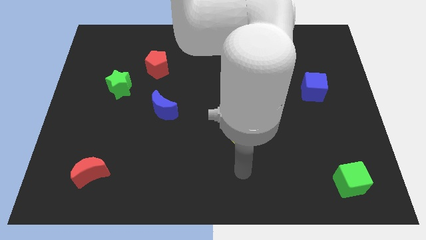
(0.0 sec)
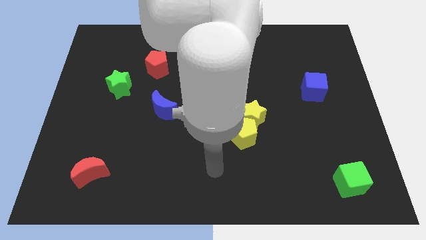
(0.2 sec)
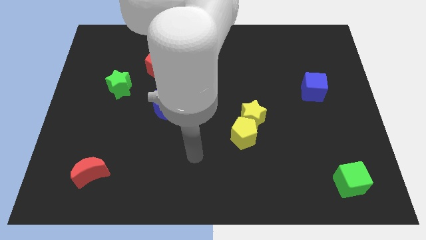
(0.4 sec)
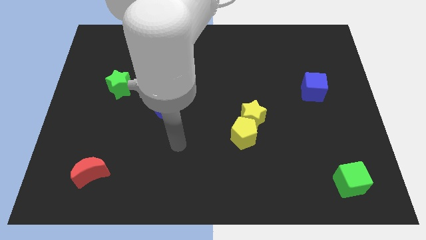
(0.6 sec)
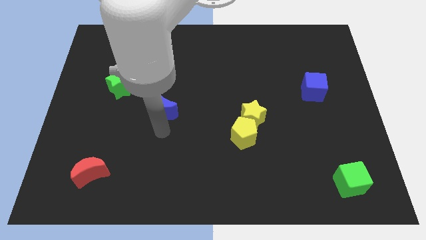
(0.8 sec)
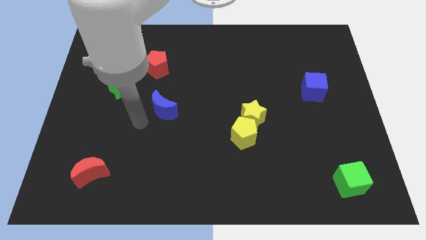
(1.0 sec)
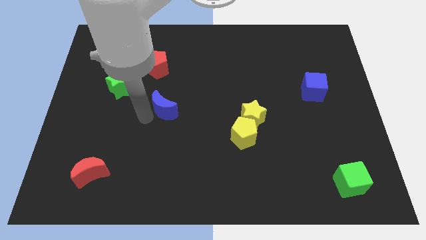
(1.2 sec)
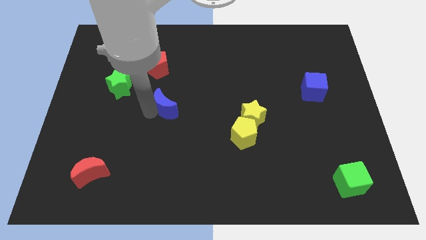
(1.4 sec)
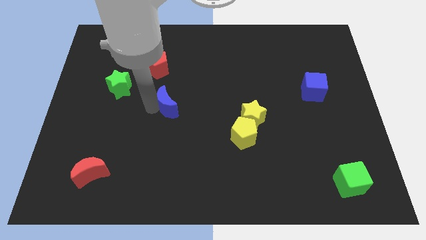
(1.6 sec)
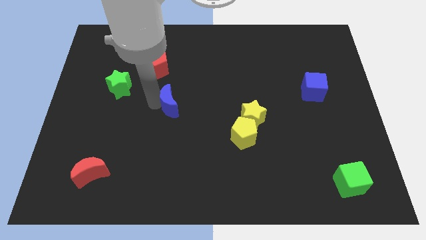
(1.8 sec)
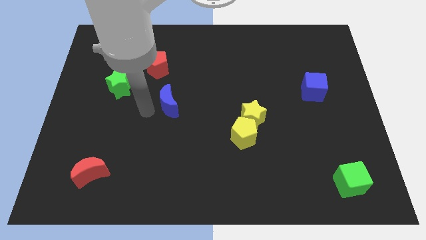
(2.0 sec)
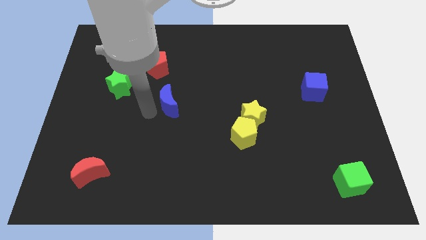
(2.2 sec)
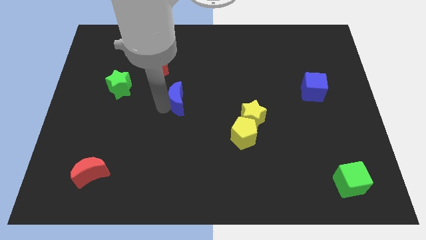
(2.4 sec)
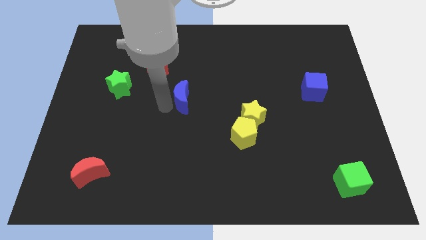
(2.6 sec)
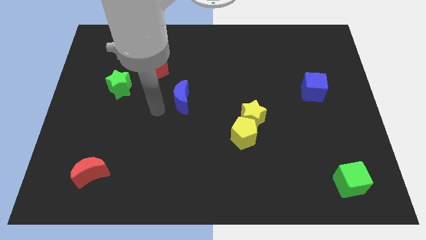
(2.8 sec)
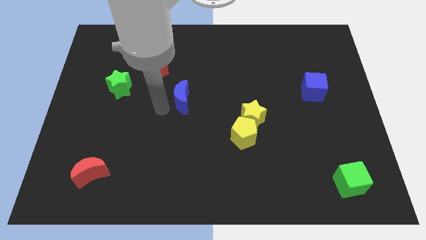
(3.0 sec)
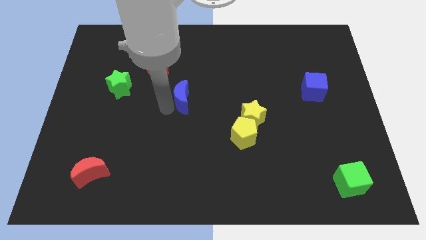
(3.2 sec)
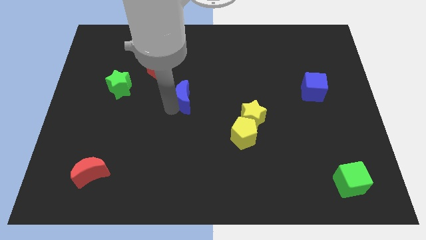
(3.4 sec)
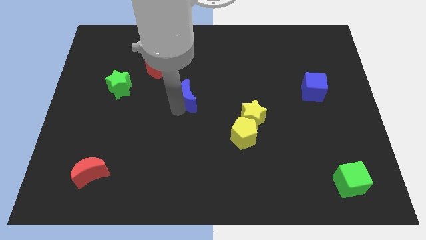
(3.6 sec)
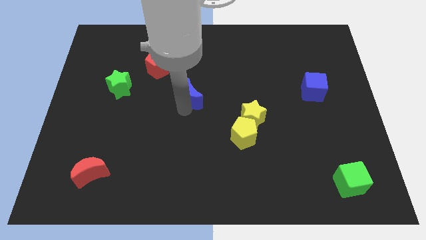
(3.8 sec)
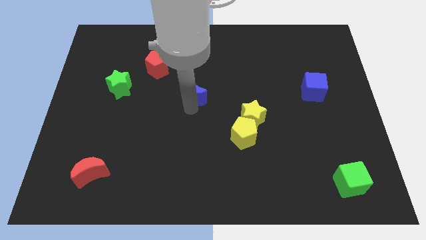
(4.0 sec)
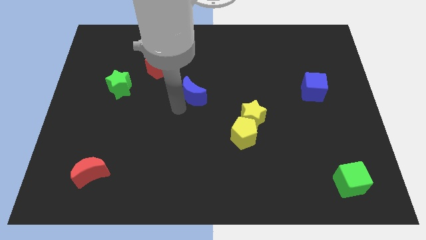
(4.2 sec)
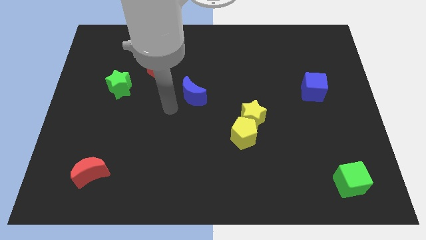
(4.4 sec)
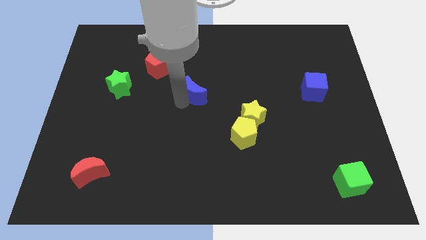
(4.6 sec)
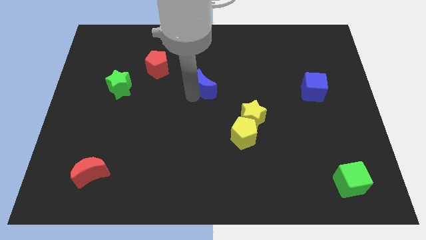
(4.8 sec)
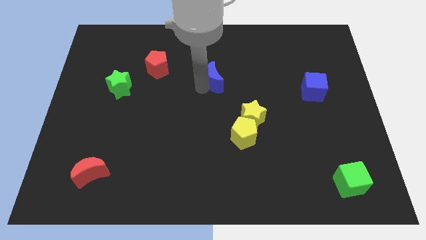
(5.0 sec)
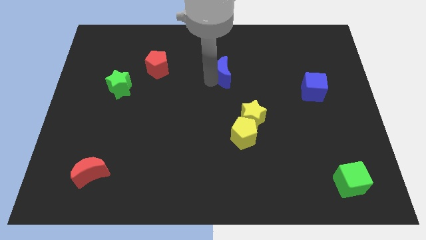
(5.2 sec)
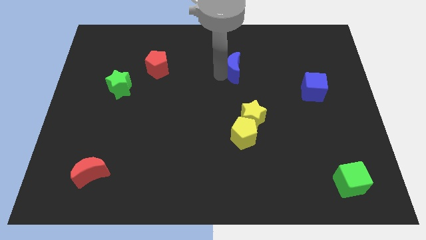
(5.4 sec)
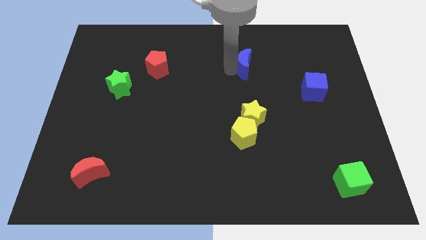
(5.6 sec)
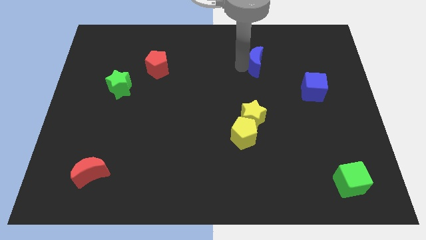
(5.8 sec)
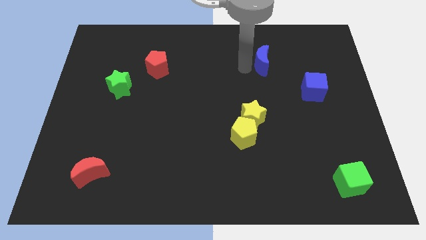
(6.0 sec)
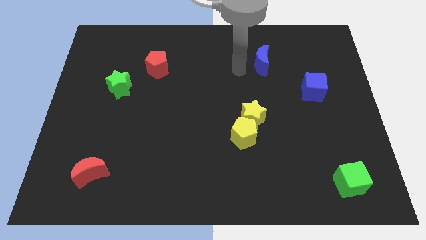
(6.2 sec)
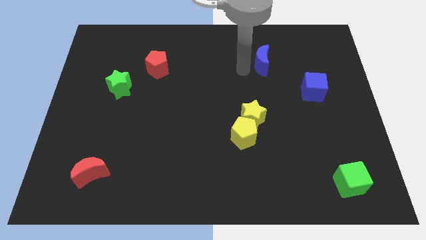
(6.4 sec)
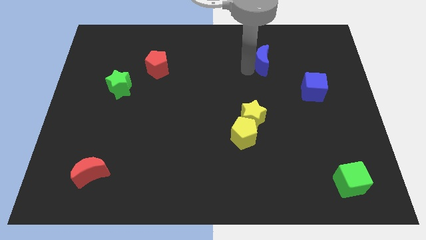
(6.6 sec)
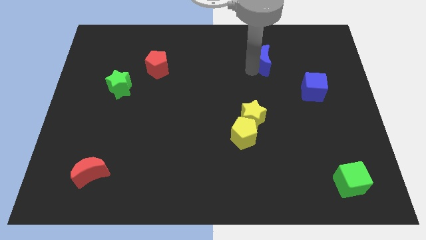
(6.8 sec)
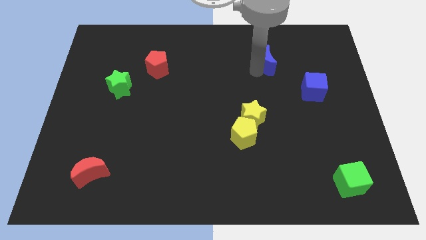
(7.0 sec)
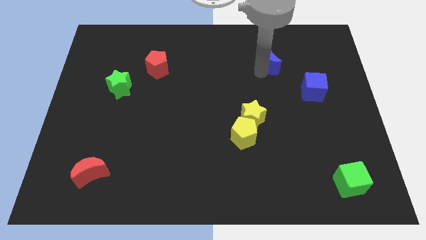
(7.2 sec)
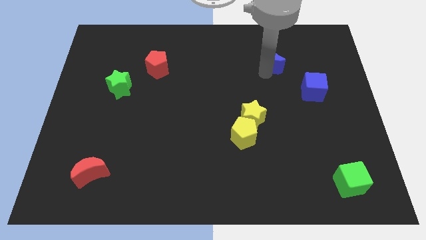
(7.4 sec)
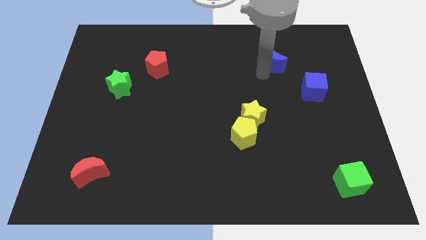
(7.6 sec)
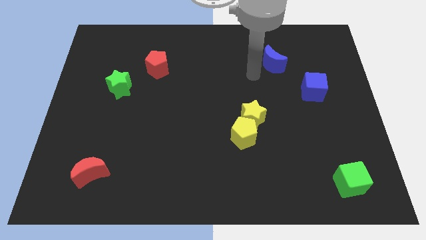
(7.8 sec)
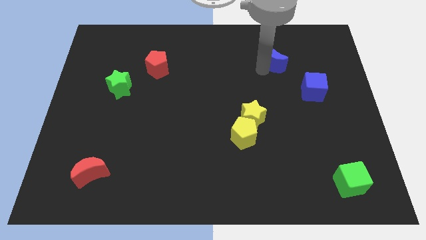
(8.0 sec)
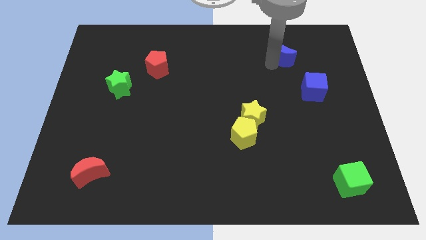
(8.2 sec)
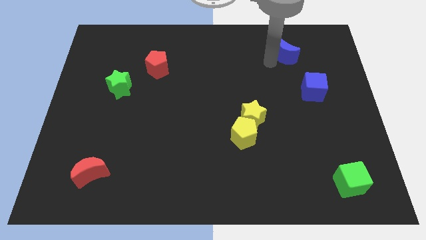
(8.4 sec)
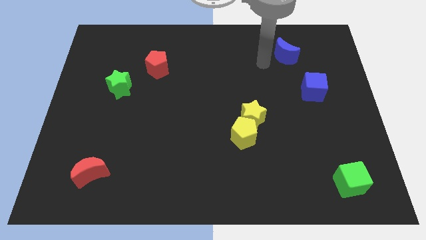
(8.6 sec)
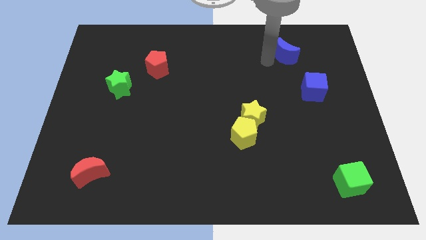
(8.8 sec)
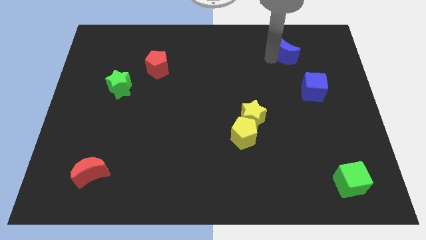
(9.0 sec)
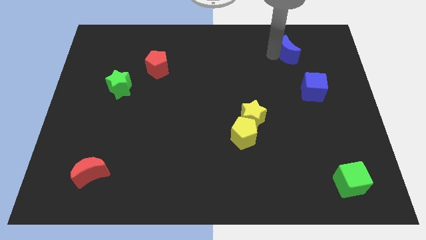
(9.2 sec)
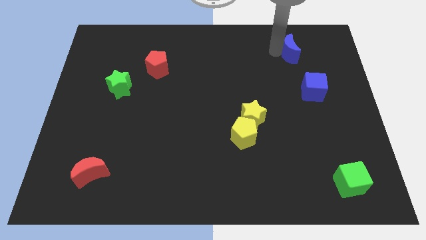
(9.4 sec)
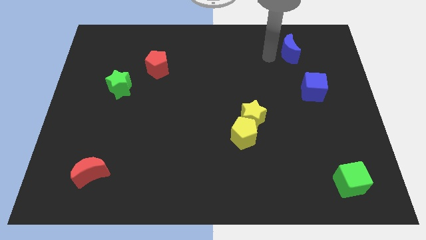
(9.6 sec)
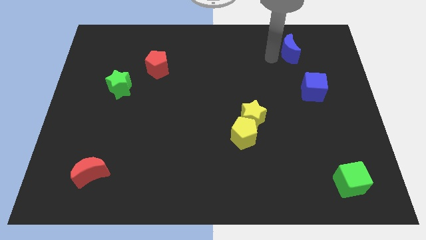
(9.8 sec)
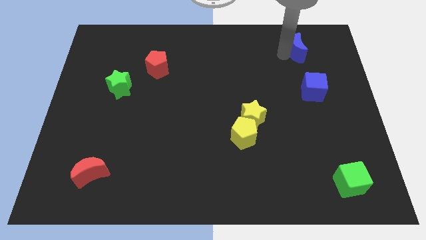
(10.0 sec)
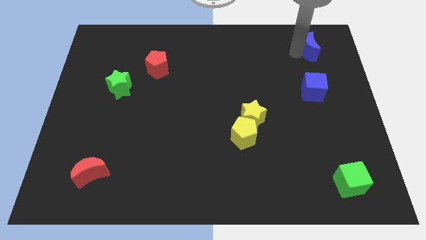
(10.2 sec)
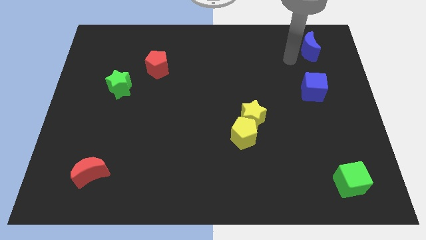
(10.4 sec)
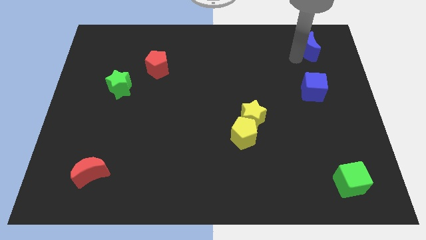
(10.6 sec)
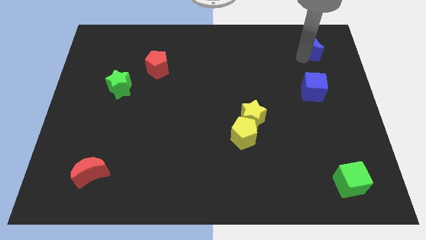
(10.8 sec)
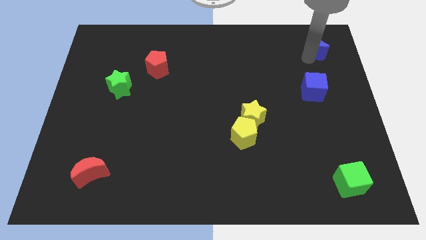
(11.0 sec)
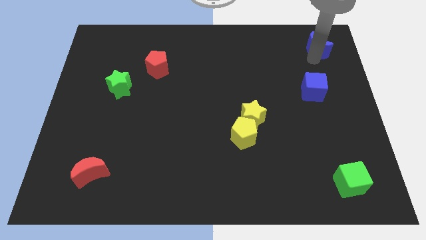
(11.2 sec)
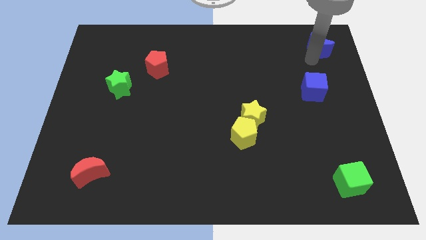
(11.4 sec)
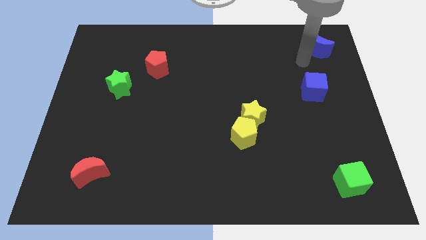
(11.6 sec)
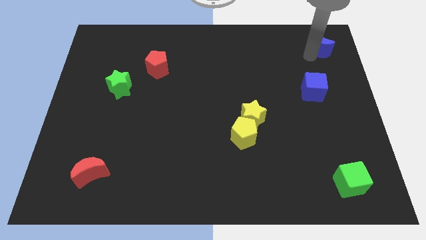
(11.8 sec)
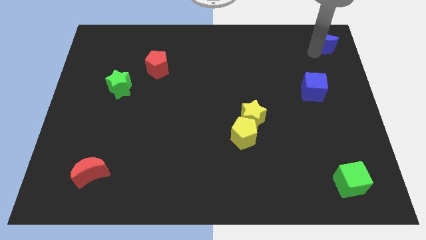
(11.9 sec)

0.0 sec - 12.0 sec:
move the blue moon to the top right corner
